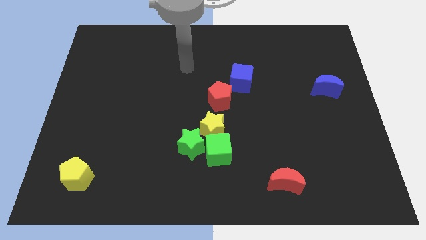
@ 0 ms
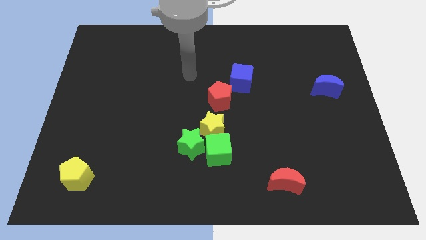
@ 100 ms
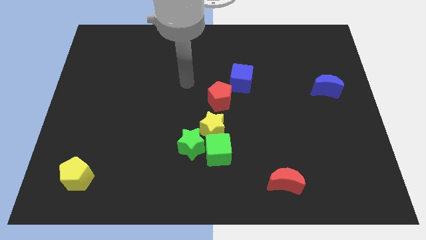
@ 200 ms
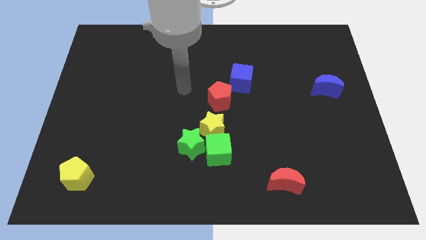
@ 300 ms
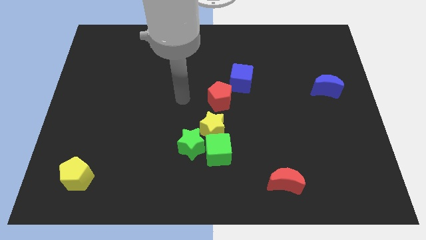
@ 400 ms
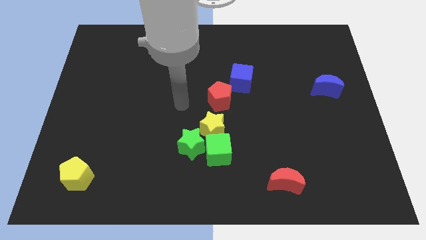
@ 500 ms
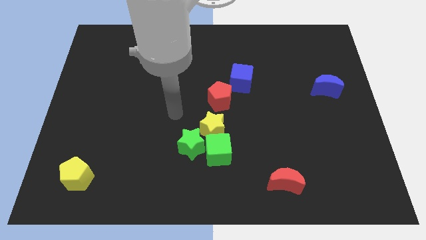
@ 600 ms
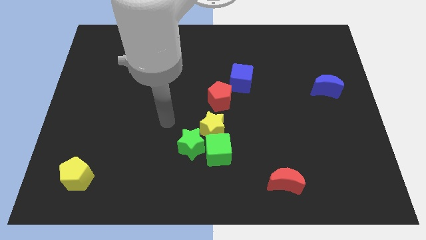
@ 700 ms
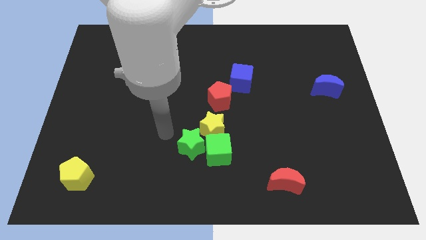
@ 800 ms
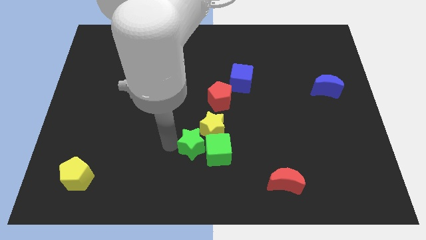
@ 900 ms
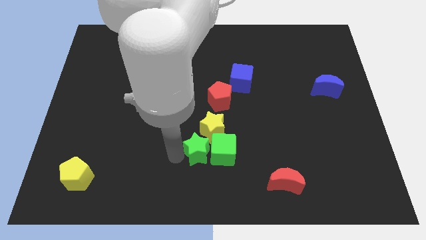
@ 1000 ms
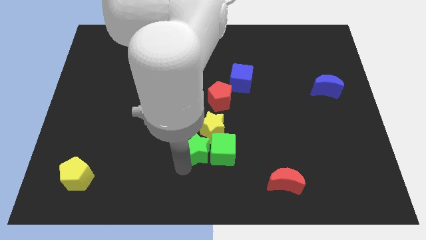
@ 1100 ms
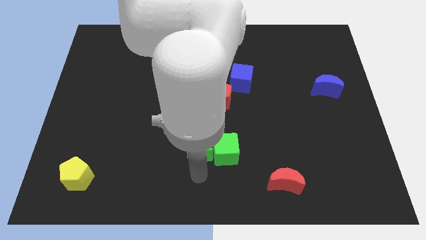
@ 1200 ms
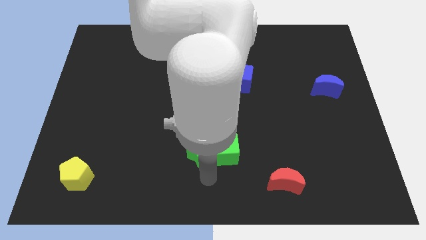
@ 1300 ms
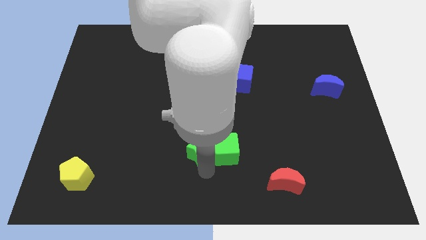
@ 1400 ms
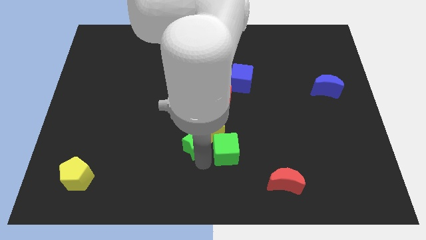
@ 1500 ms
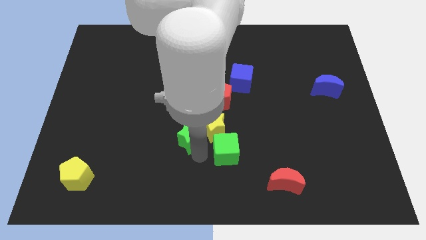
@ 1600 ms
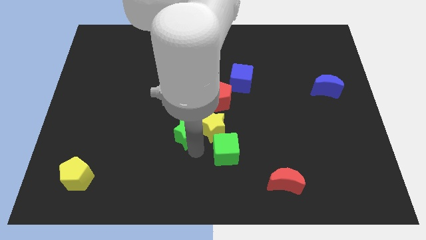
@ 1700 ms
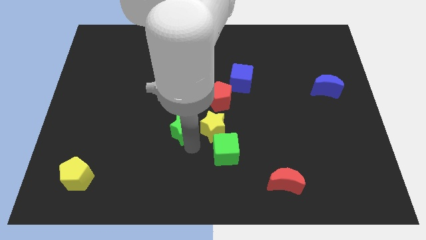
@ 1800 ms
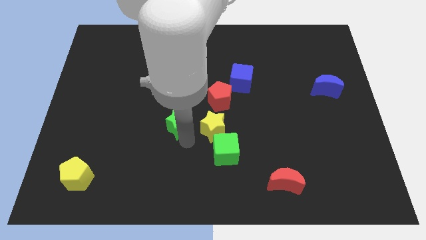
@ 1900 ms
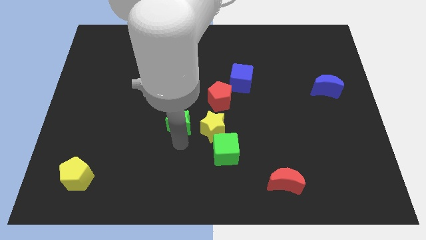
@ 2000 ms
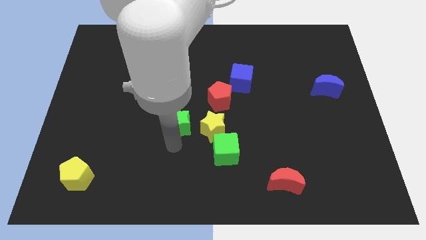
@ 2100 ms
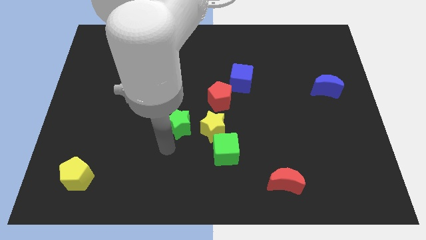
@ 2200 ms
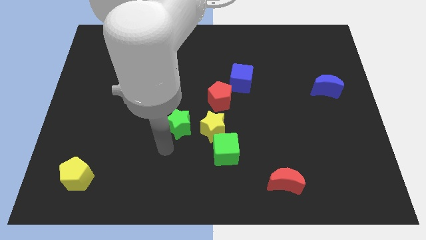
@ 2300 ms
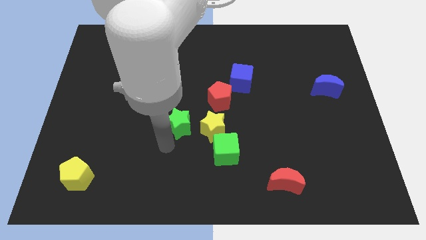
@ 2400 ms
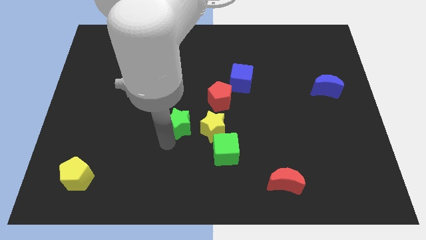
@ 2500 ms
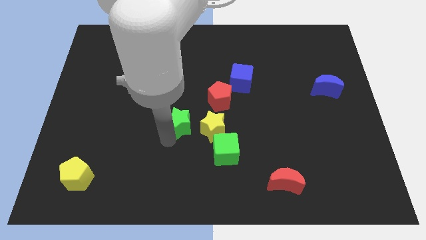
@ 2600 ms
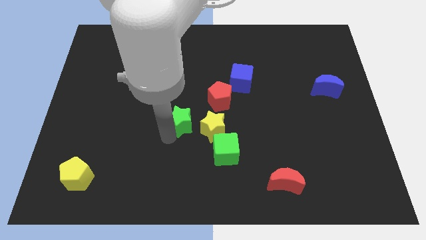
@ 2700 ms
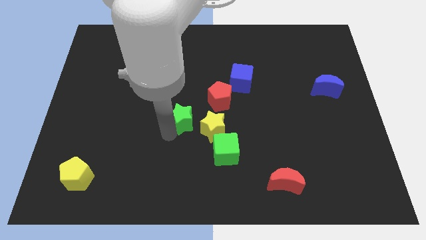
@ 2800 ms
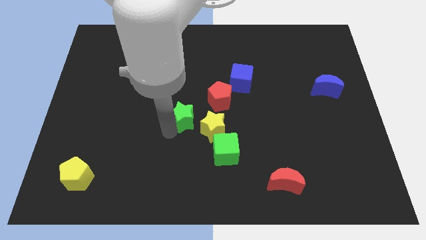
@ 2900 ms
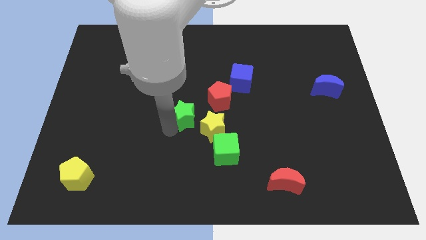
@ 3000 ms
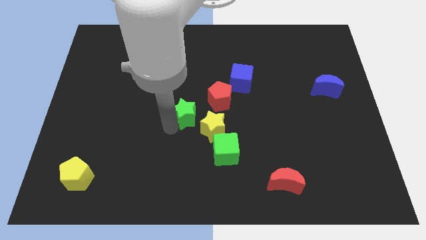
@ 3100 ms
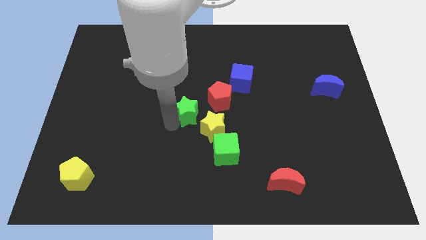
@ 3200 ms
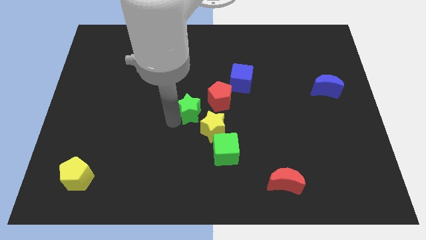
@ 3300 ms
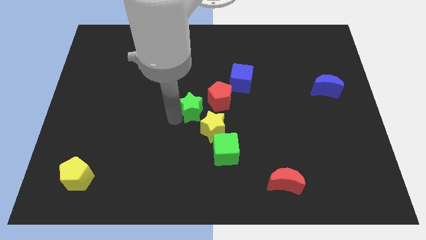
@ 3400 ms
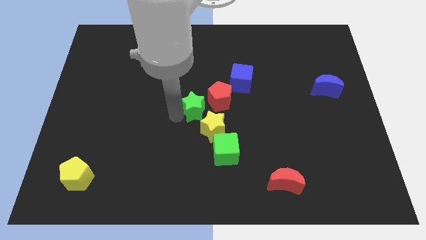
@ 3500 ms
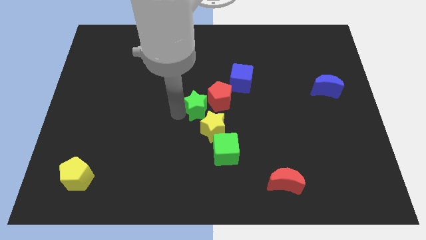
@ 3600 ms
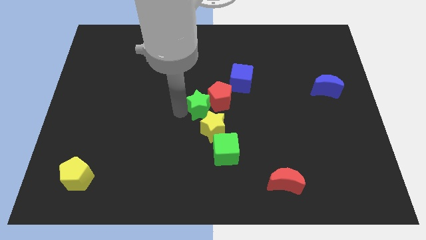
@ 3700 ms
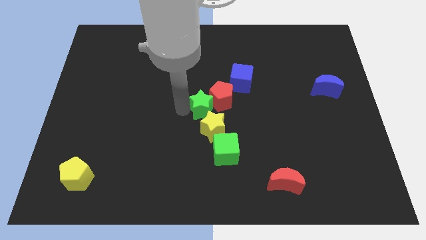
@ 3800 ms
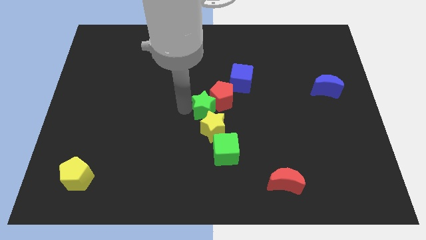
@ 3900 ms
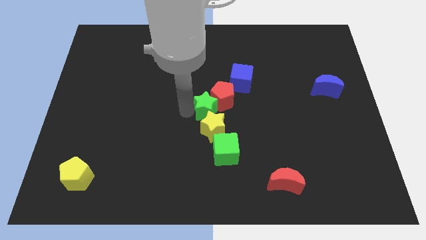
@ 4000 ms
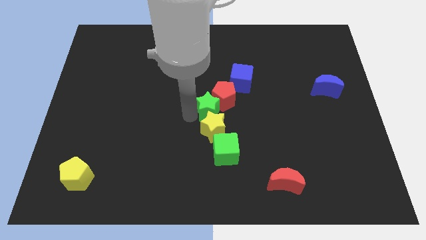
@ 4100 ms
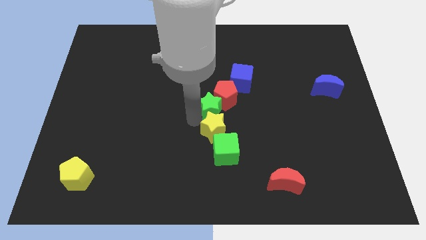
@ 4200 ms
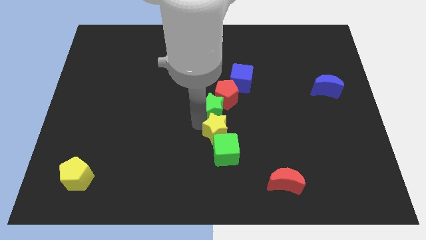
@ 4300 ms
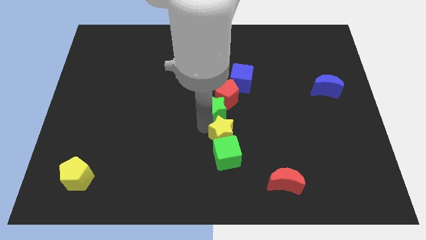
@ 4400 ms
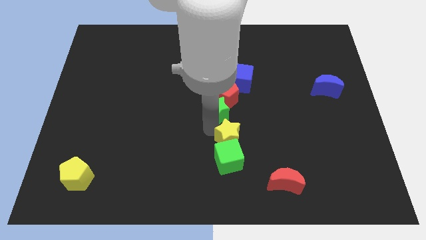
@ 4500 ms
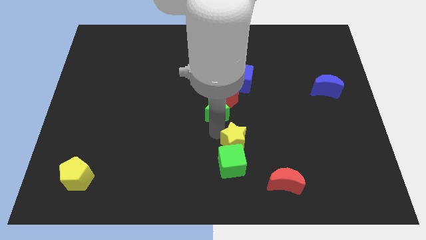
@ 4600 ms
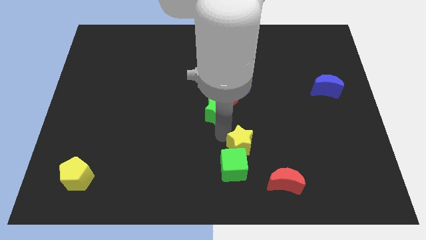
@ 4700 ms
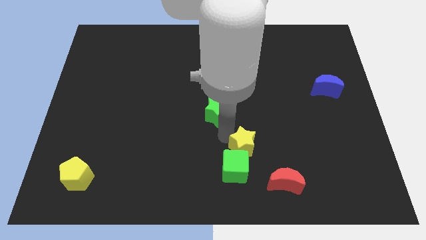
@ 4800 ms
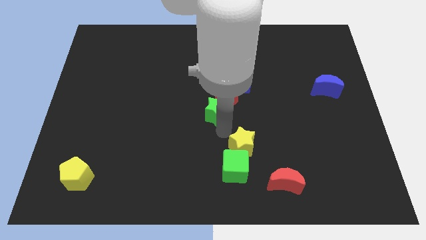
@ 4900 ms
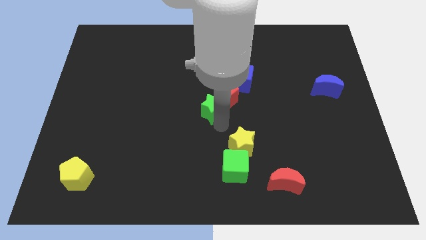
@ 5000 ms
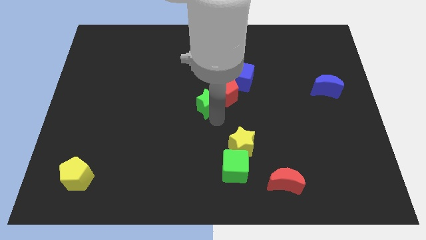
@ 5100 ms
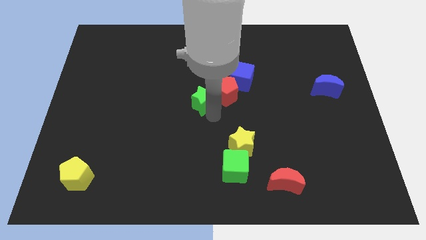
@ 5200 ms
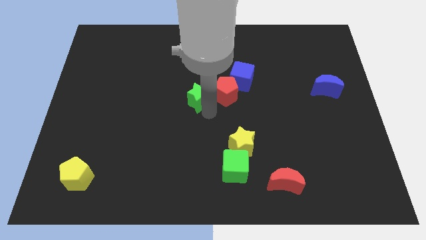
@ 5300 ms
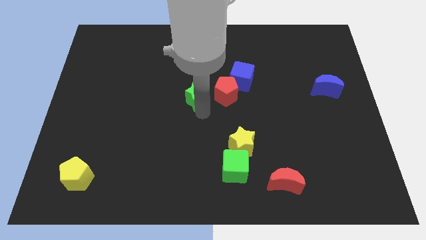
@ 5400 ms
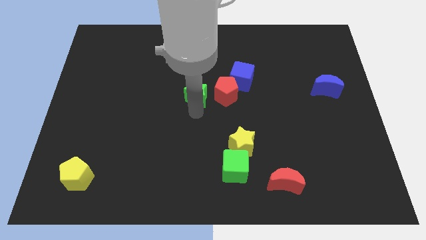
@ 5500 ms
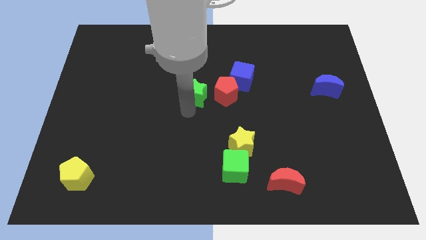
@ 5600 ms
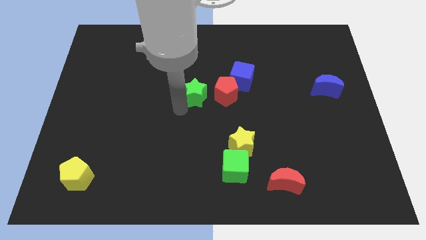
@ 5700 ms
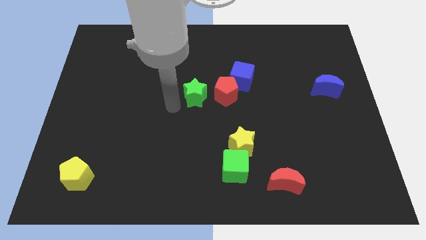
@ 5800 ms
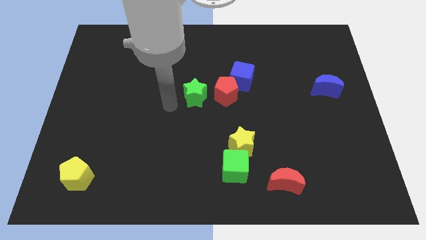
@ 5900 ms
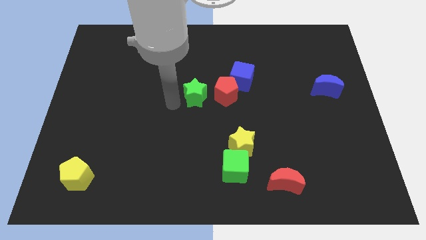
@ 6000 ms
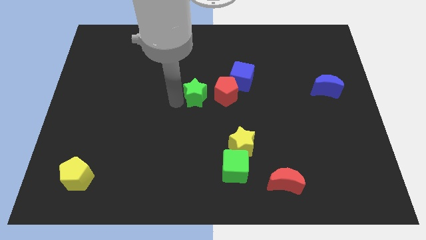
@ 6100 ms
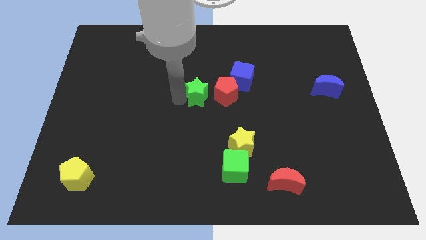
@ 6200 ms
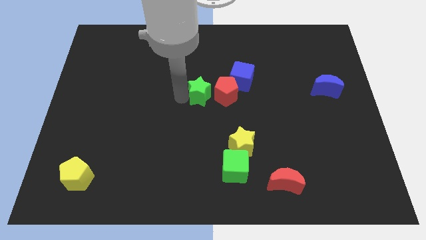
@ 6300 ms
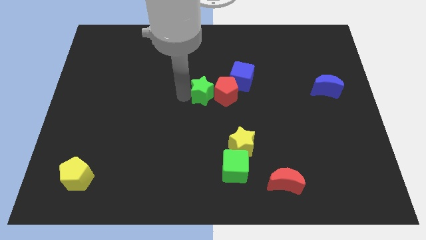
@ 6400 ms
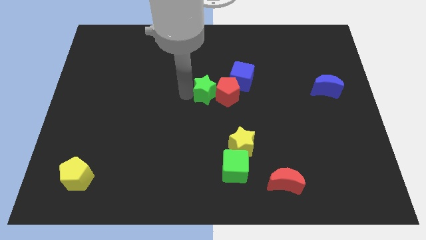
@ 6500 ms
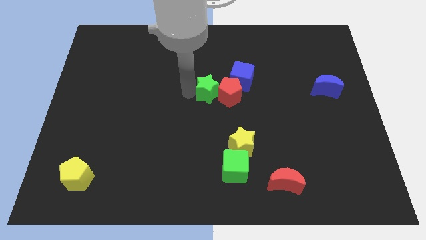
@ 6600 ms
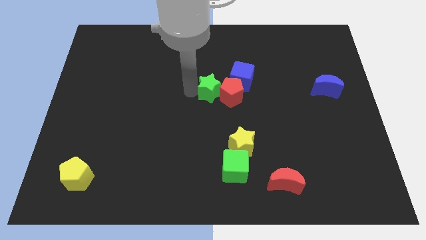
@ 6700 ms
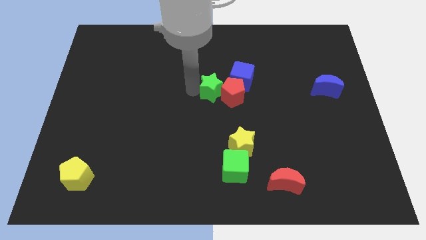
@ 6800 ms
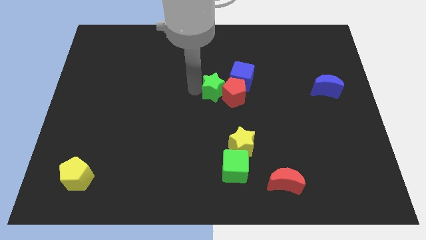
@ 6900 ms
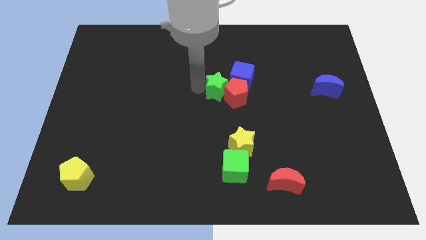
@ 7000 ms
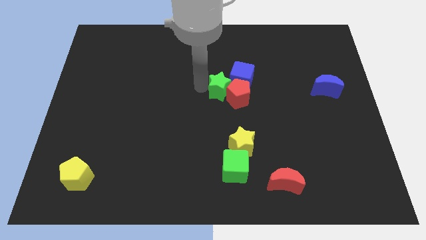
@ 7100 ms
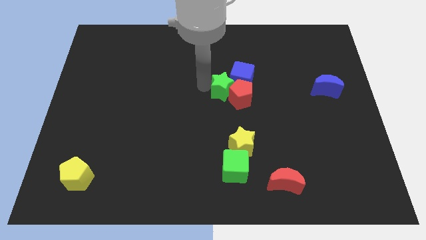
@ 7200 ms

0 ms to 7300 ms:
slide the green star to the blue cube

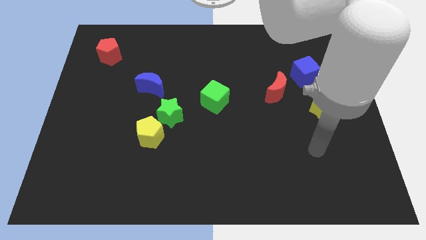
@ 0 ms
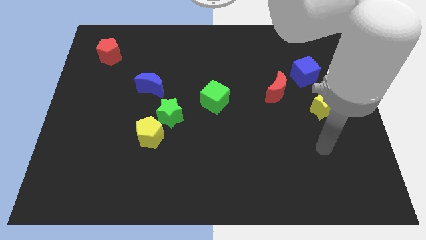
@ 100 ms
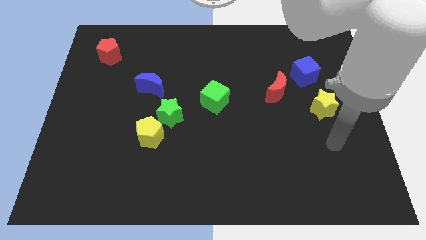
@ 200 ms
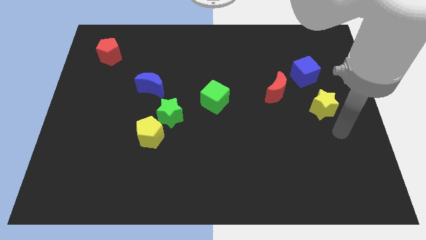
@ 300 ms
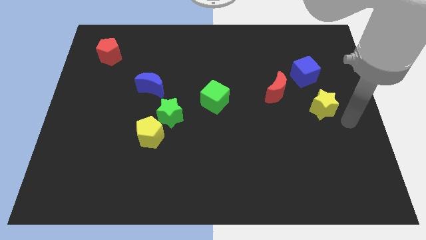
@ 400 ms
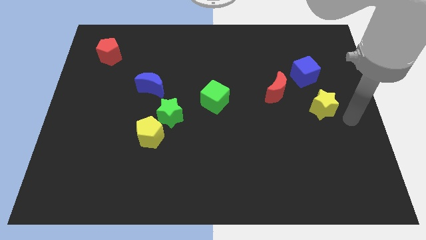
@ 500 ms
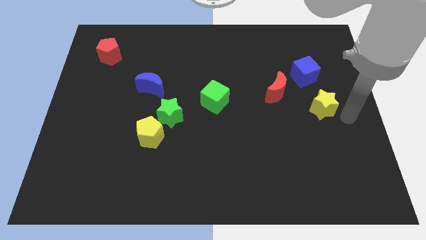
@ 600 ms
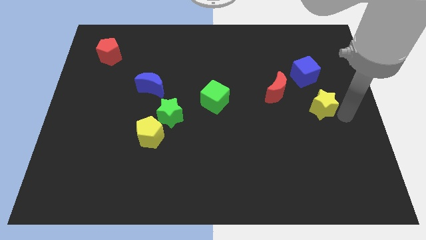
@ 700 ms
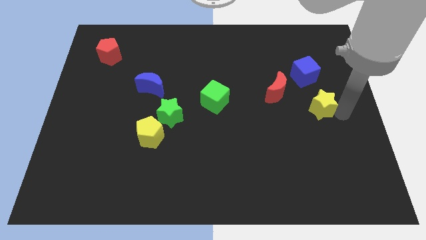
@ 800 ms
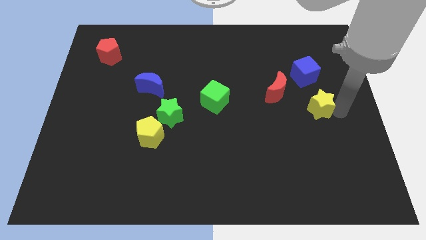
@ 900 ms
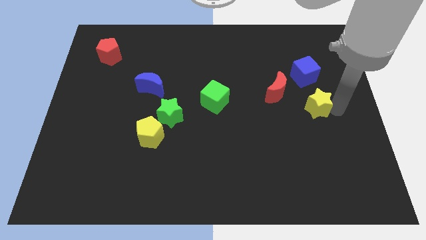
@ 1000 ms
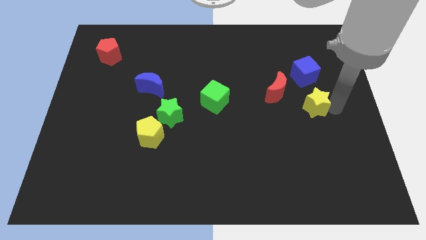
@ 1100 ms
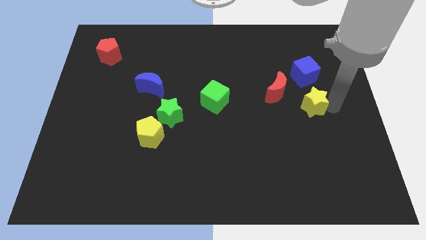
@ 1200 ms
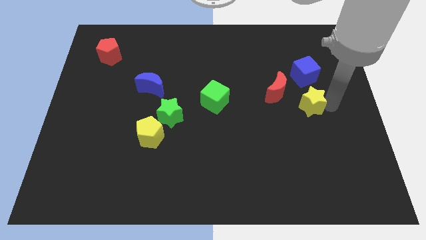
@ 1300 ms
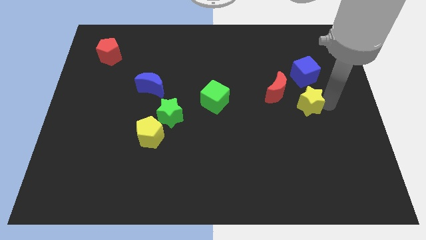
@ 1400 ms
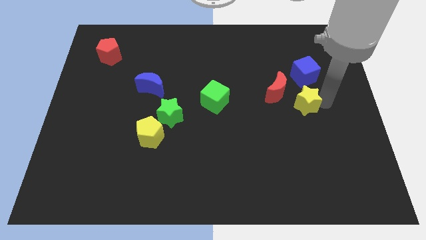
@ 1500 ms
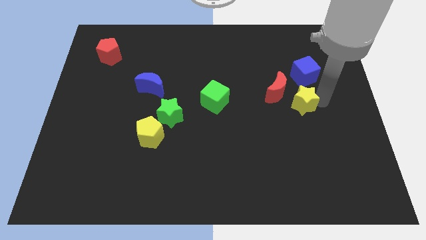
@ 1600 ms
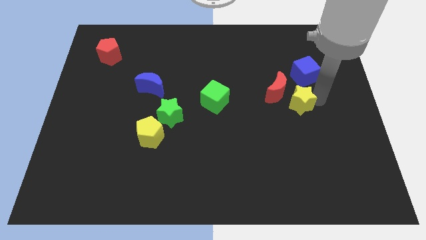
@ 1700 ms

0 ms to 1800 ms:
slide the yellow star close to the red moon
